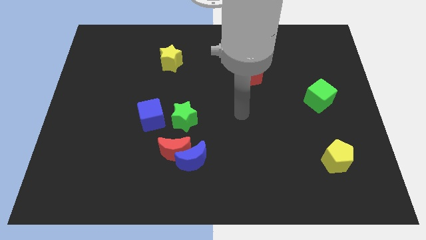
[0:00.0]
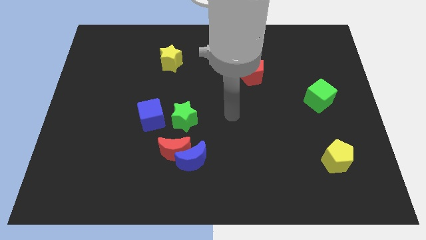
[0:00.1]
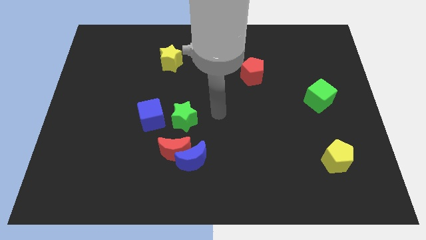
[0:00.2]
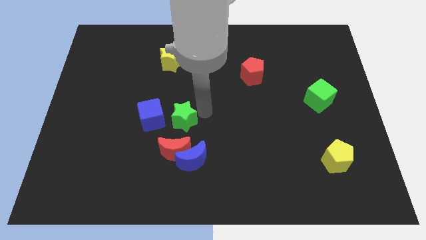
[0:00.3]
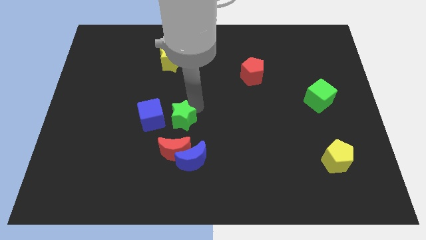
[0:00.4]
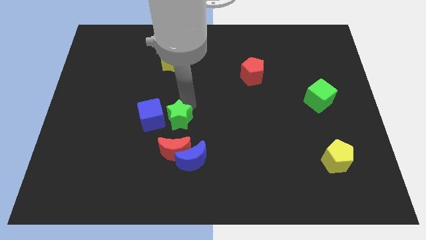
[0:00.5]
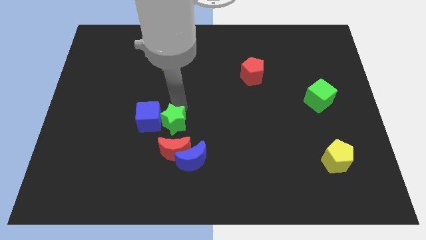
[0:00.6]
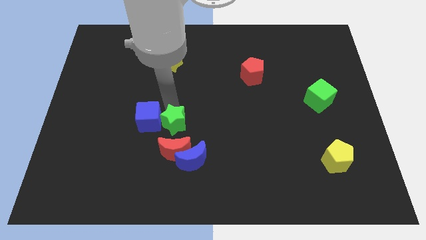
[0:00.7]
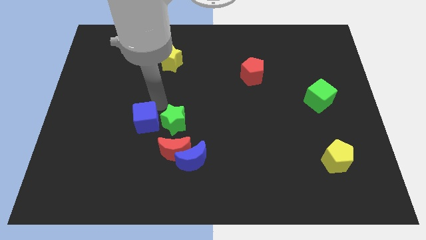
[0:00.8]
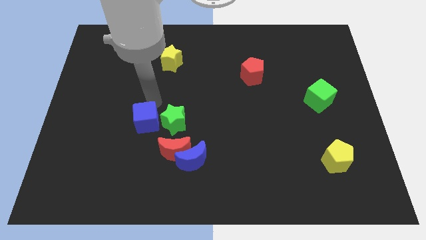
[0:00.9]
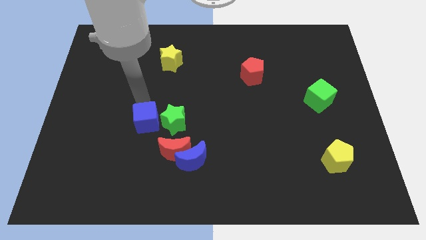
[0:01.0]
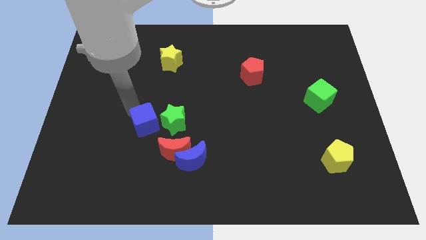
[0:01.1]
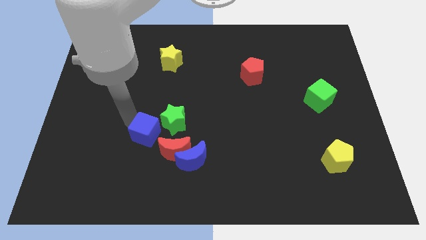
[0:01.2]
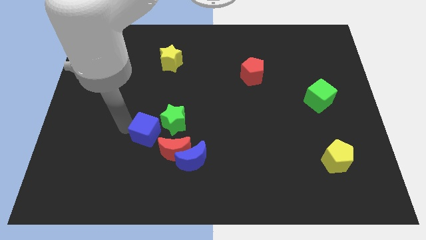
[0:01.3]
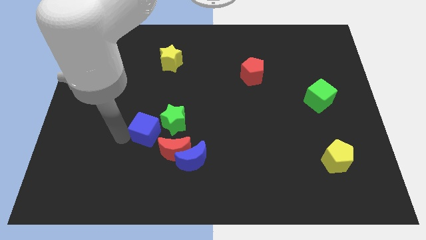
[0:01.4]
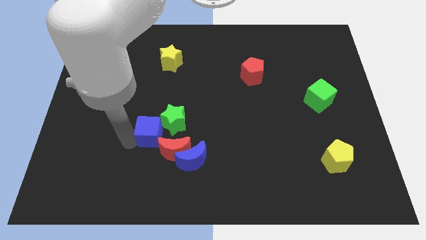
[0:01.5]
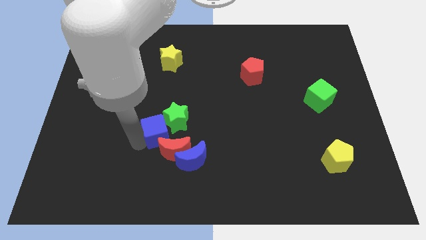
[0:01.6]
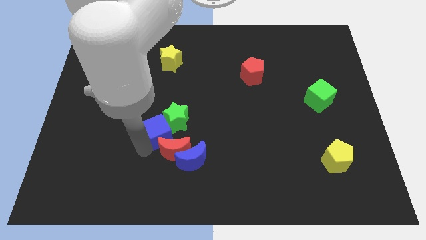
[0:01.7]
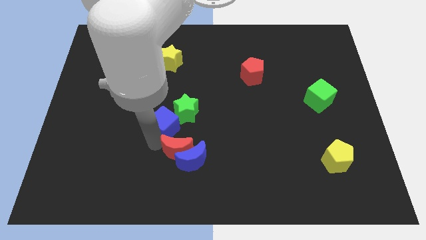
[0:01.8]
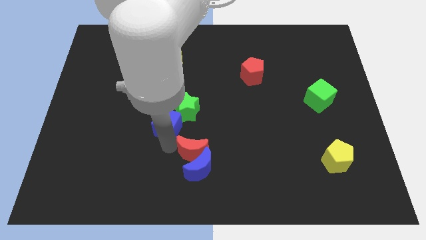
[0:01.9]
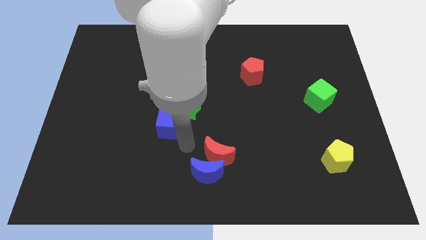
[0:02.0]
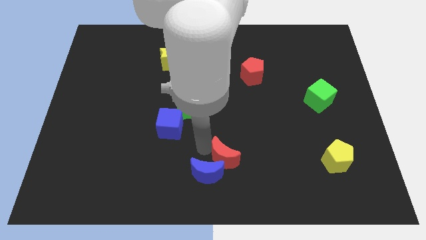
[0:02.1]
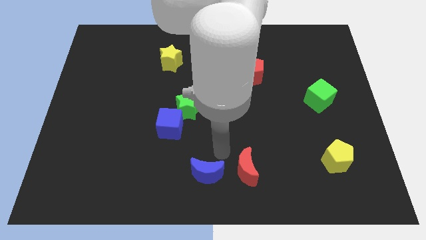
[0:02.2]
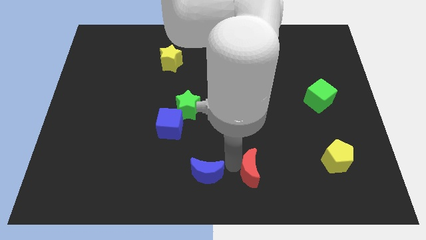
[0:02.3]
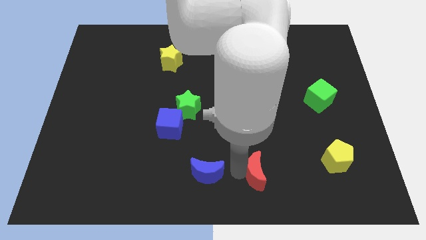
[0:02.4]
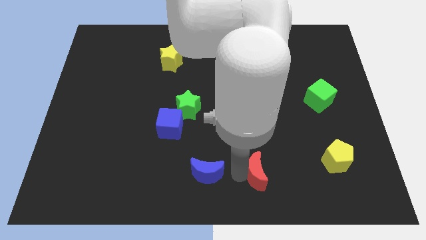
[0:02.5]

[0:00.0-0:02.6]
pull the blue moon apart from the red moon

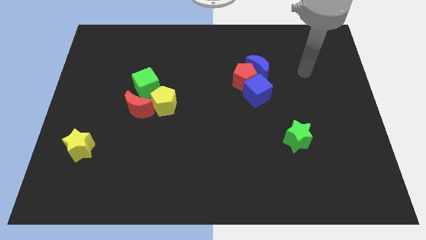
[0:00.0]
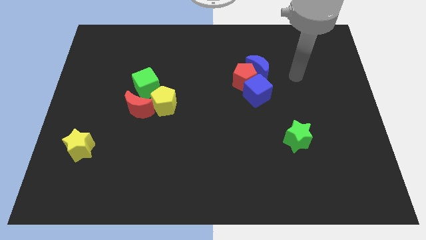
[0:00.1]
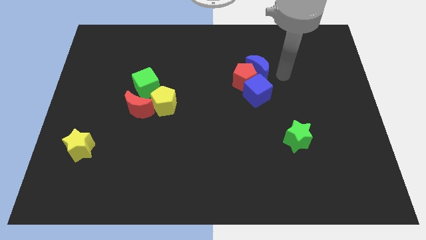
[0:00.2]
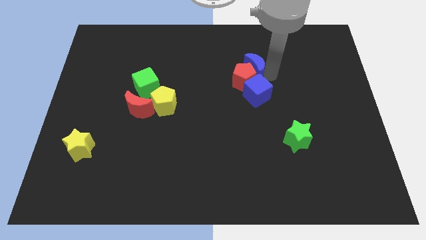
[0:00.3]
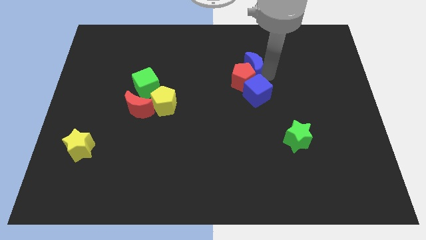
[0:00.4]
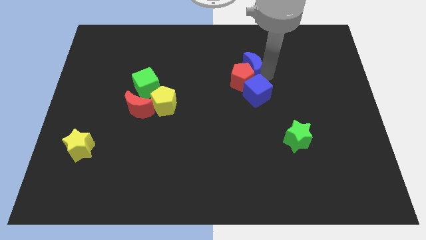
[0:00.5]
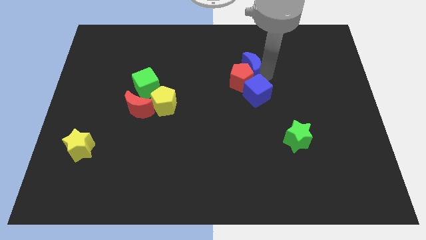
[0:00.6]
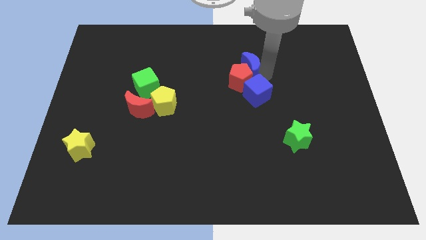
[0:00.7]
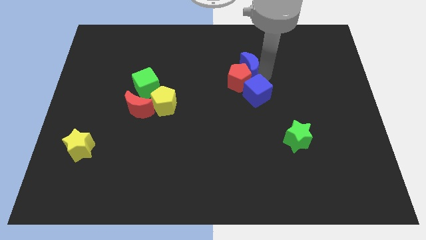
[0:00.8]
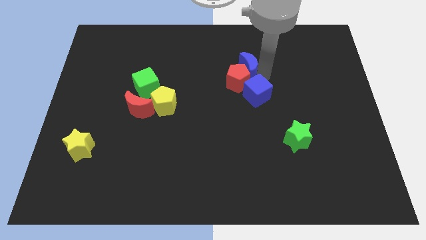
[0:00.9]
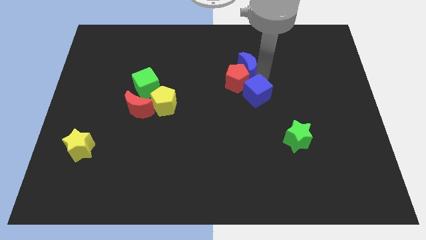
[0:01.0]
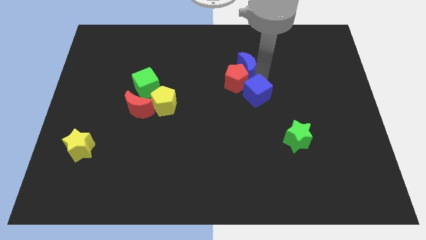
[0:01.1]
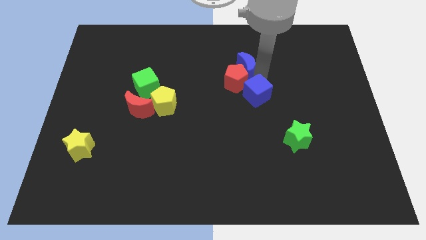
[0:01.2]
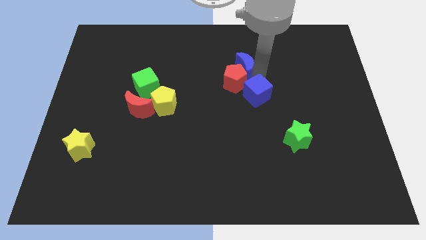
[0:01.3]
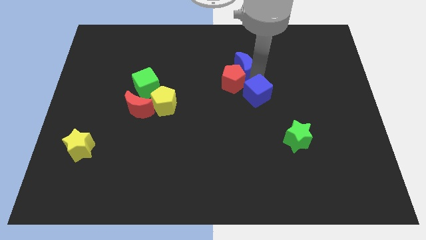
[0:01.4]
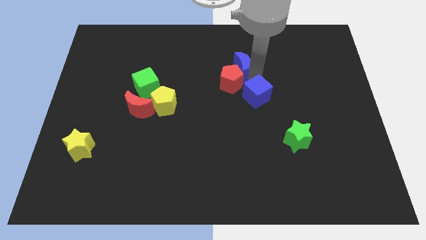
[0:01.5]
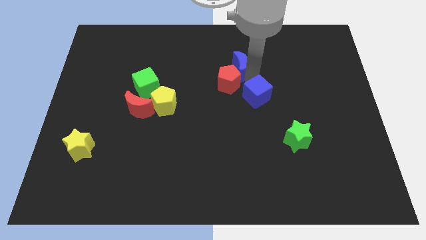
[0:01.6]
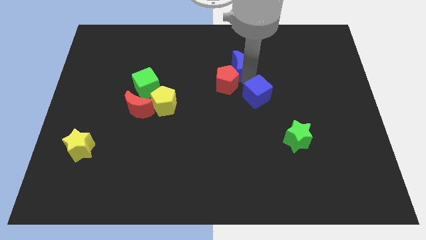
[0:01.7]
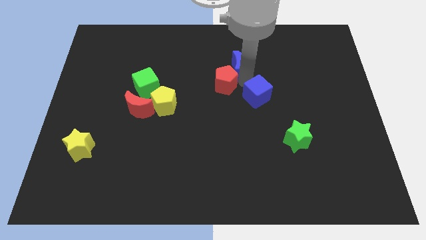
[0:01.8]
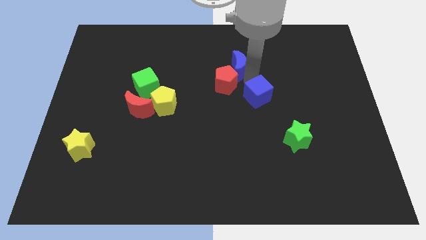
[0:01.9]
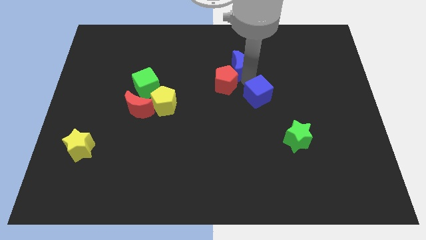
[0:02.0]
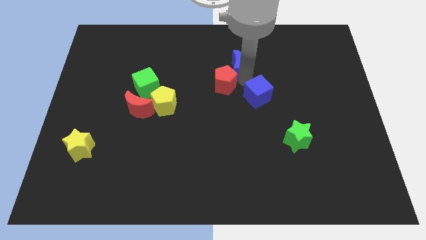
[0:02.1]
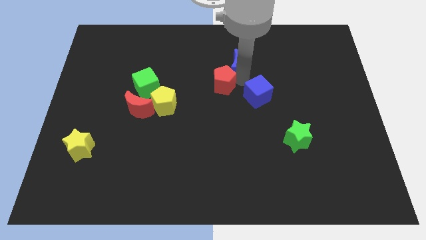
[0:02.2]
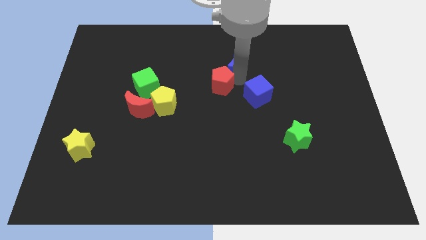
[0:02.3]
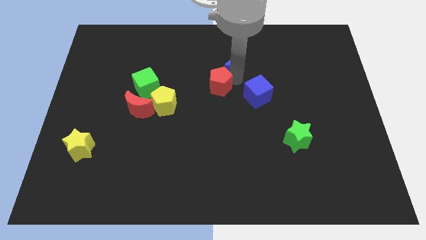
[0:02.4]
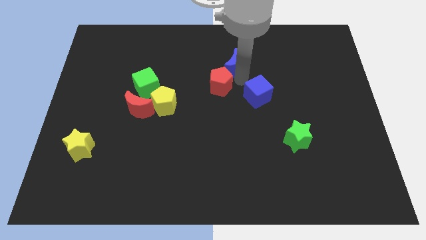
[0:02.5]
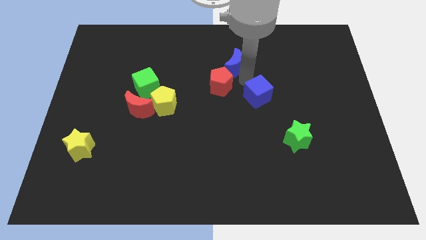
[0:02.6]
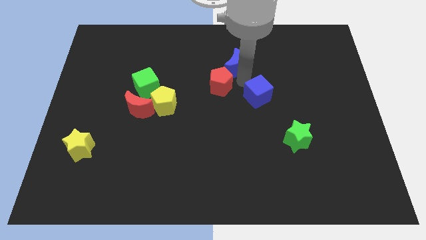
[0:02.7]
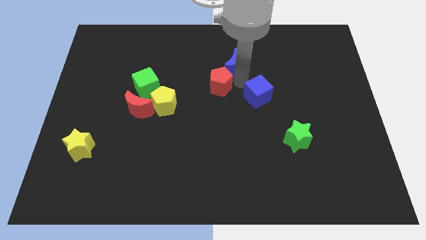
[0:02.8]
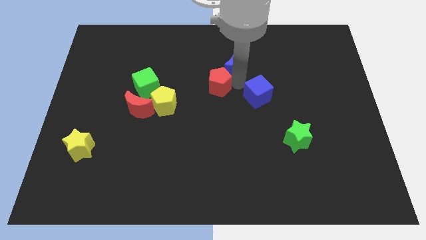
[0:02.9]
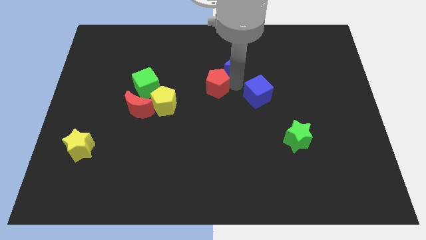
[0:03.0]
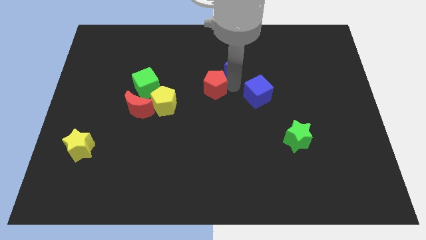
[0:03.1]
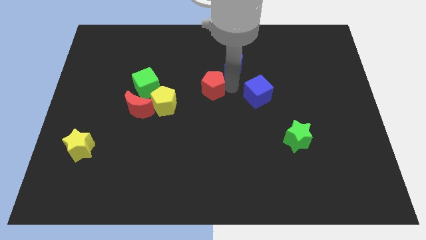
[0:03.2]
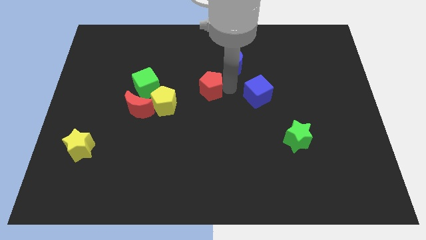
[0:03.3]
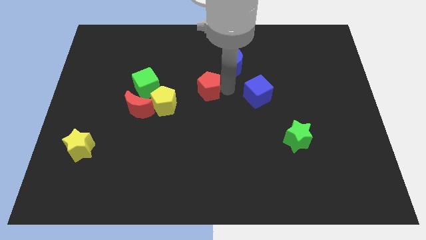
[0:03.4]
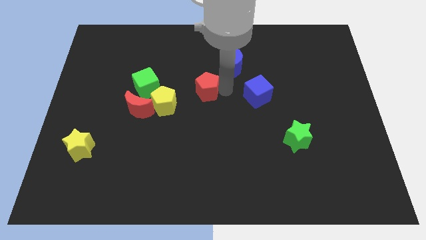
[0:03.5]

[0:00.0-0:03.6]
move the red pentagon away from the blue moon and blue cube

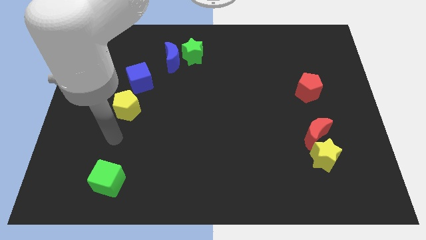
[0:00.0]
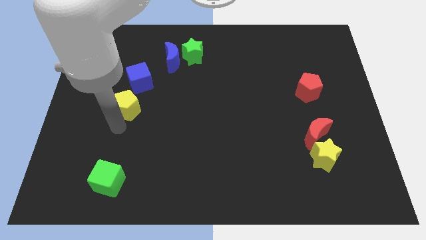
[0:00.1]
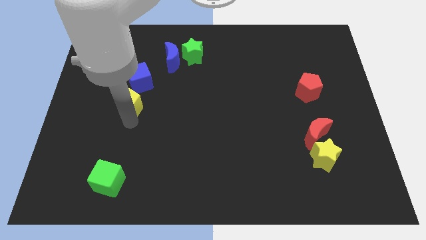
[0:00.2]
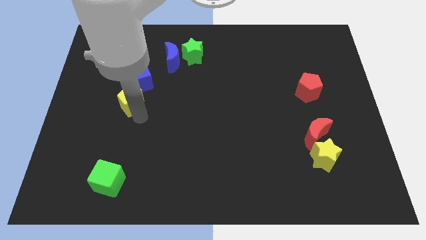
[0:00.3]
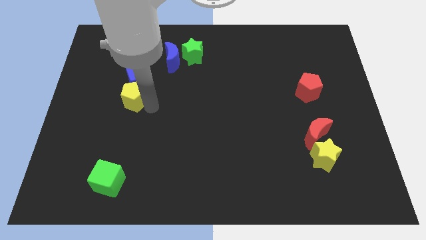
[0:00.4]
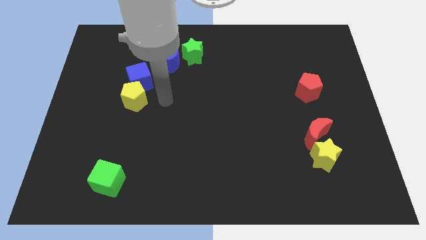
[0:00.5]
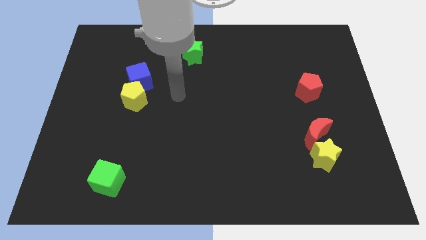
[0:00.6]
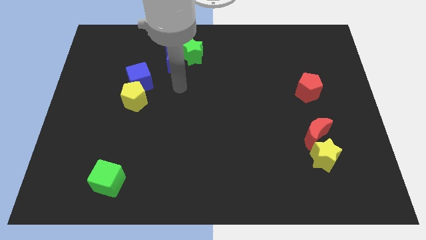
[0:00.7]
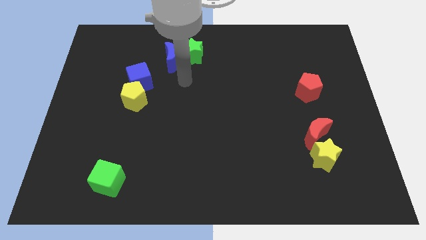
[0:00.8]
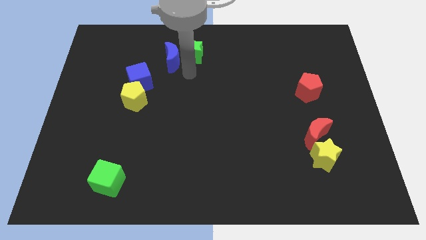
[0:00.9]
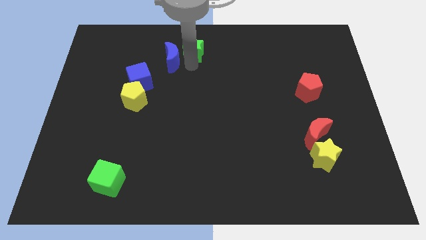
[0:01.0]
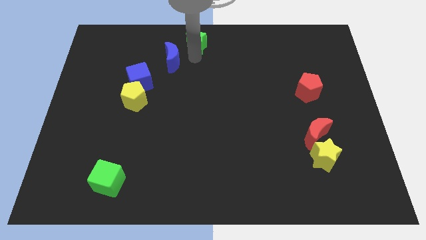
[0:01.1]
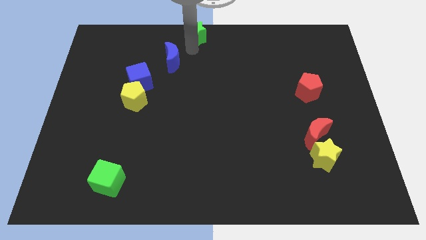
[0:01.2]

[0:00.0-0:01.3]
move the blue moon away from the green star

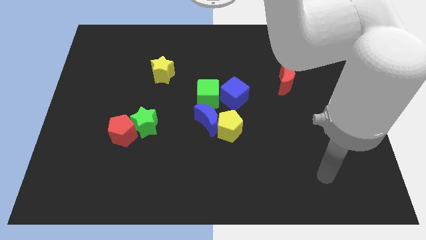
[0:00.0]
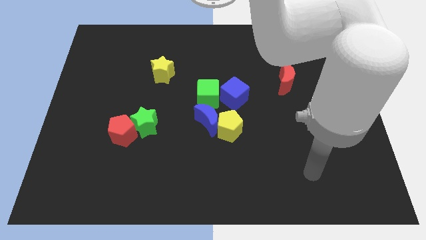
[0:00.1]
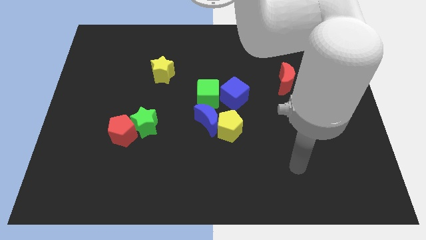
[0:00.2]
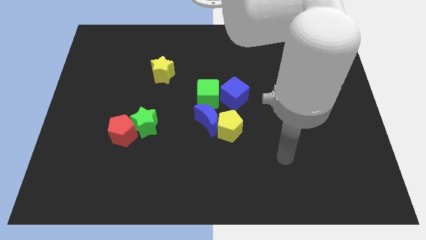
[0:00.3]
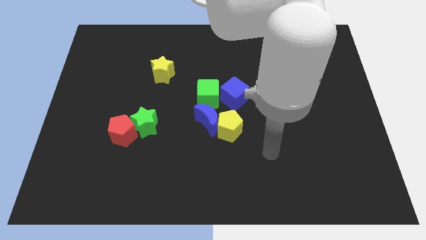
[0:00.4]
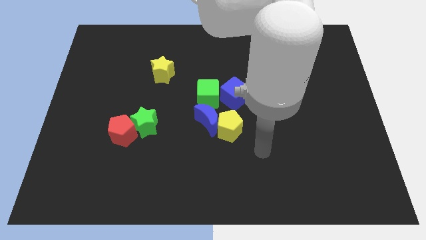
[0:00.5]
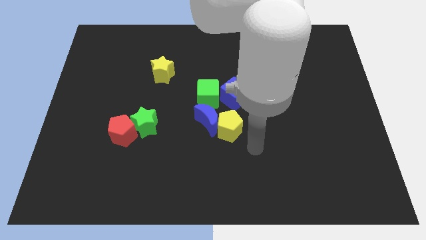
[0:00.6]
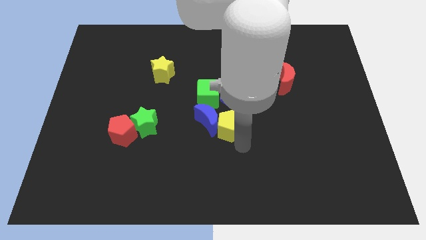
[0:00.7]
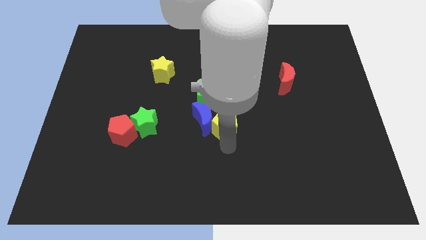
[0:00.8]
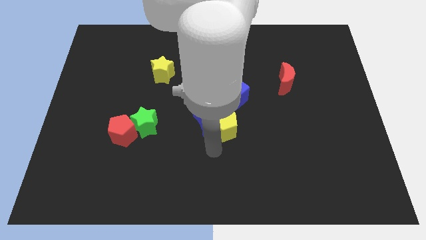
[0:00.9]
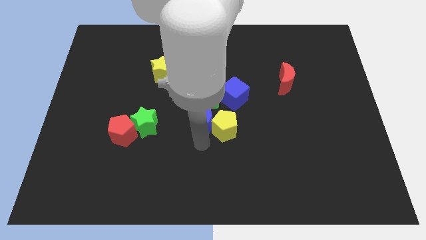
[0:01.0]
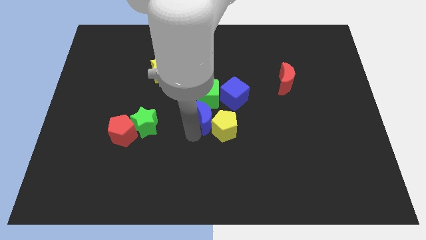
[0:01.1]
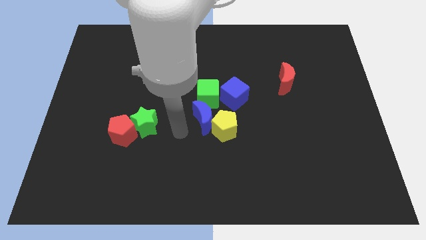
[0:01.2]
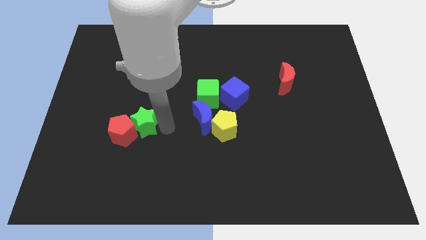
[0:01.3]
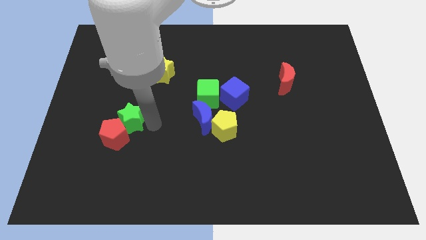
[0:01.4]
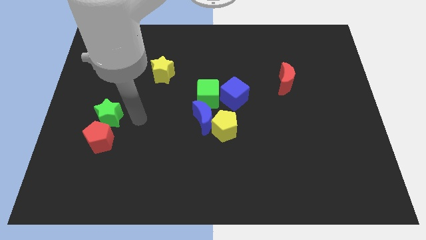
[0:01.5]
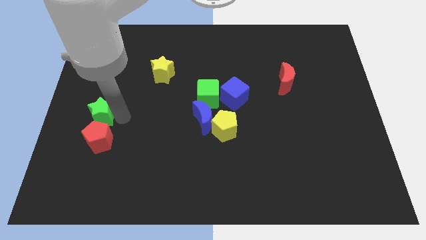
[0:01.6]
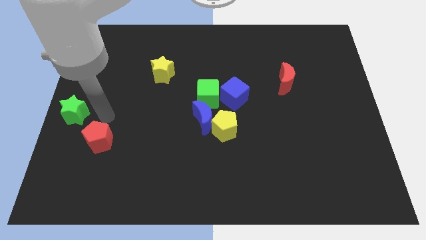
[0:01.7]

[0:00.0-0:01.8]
pull the red pentagon apart from the green star
